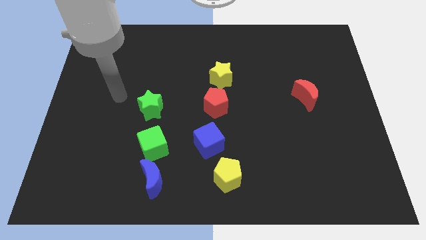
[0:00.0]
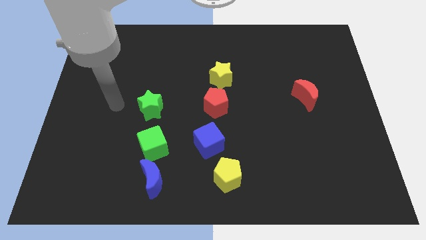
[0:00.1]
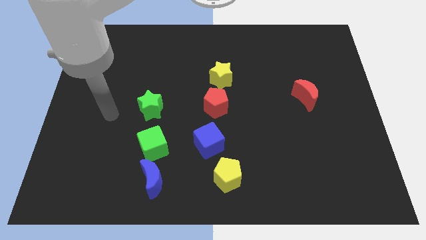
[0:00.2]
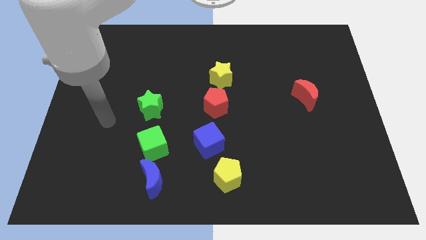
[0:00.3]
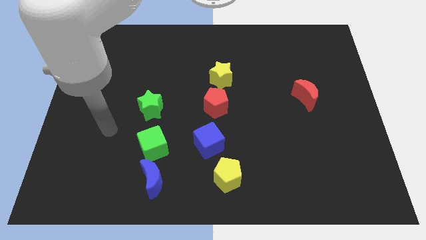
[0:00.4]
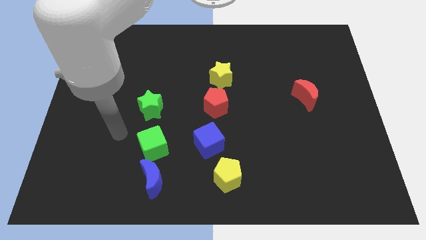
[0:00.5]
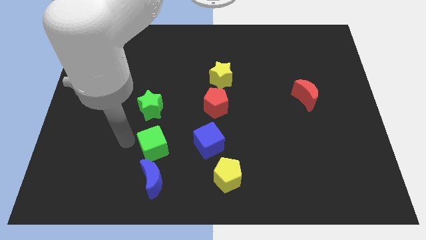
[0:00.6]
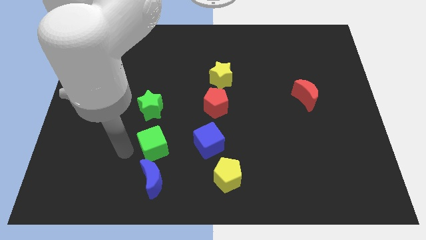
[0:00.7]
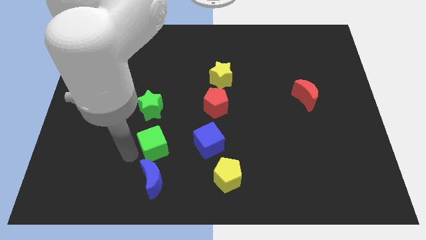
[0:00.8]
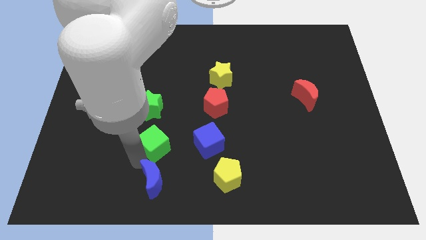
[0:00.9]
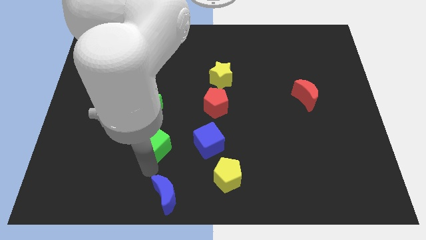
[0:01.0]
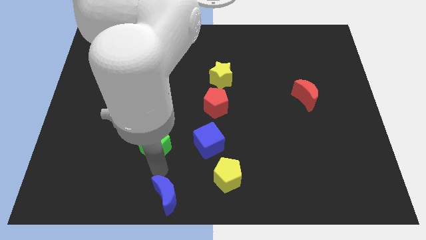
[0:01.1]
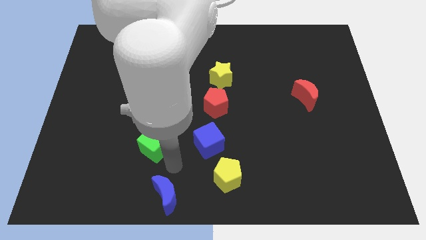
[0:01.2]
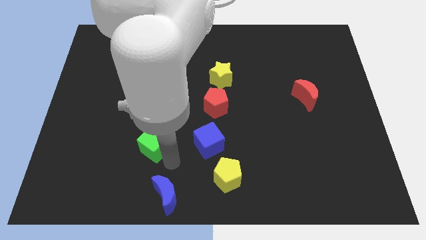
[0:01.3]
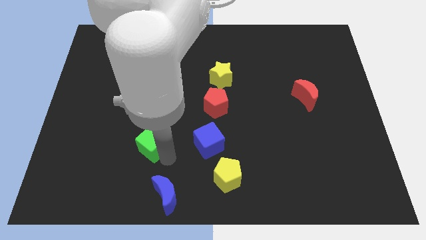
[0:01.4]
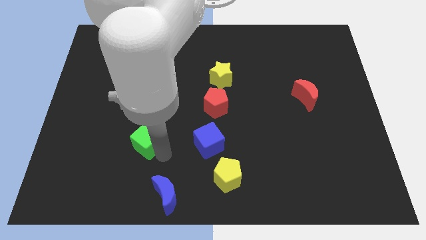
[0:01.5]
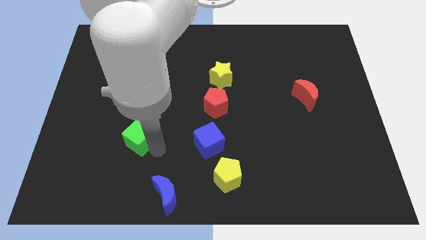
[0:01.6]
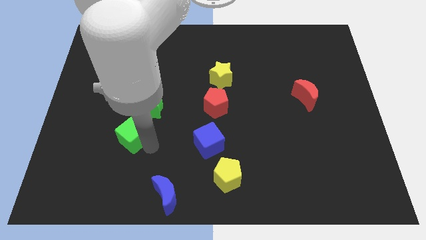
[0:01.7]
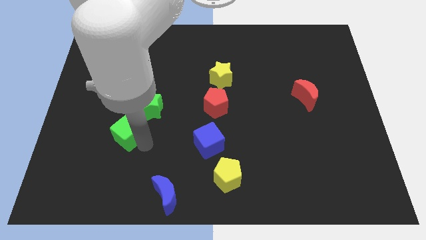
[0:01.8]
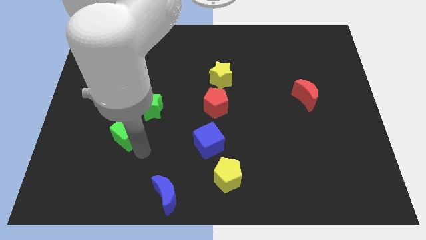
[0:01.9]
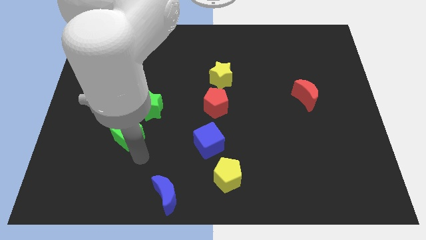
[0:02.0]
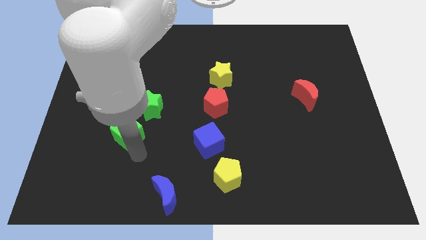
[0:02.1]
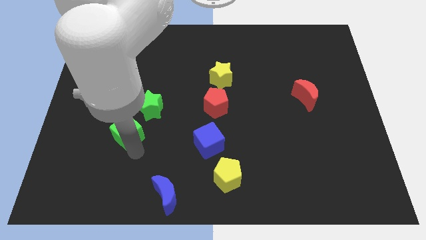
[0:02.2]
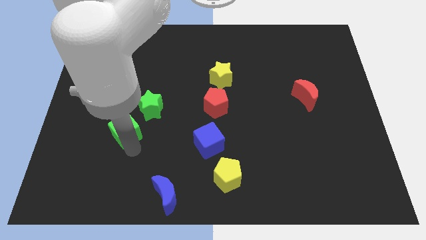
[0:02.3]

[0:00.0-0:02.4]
push the green cube a bit diagonally upwards and to the left

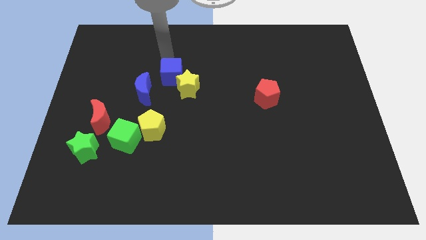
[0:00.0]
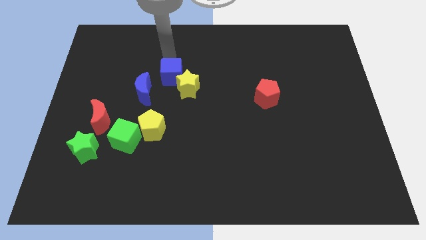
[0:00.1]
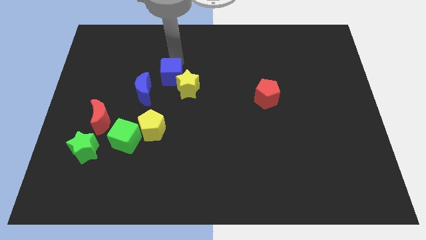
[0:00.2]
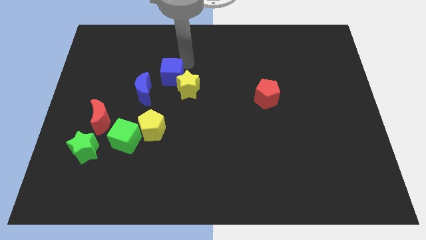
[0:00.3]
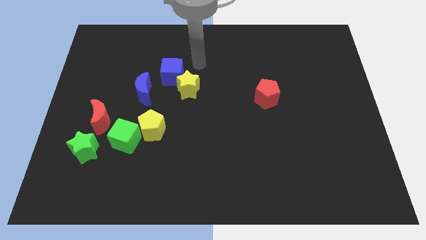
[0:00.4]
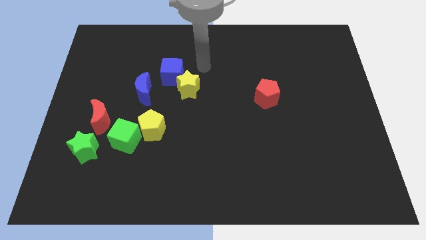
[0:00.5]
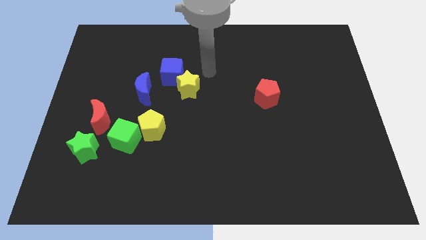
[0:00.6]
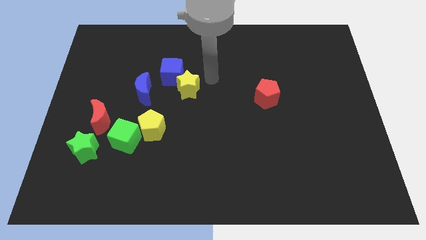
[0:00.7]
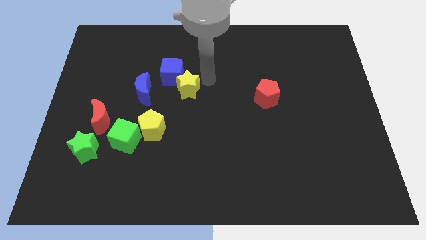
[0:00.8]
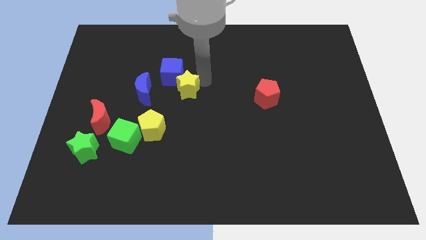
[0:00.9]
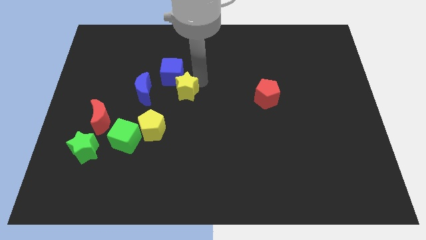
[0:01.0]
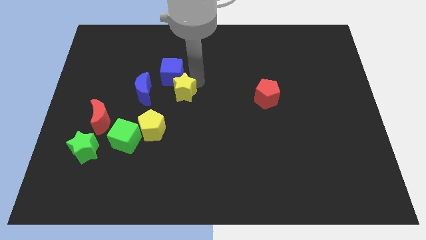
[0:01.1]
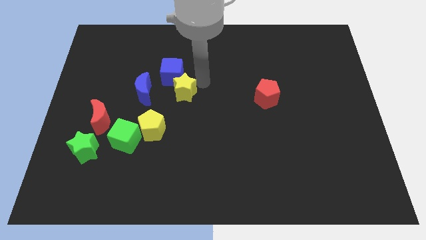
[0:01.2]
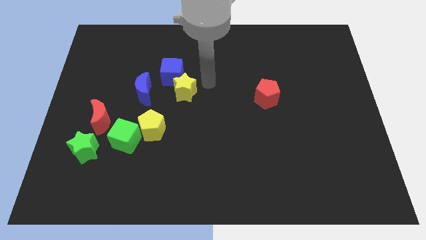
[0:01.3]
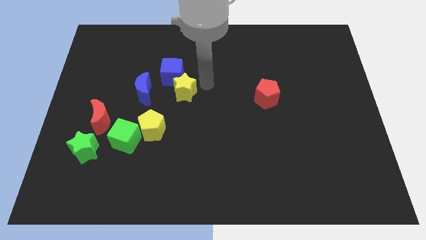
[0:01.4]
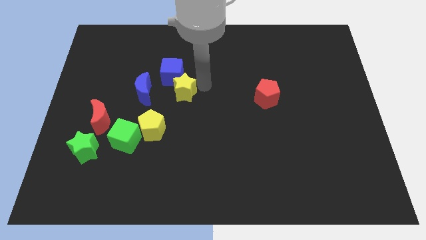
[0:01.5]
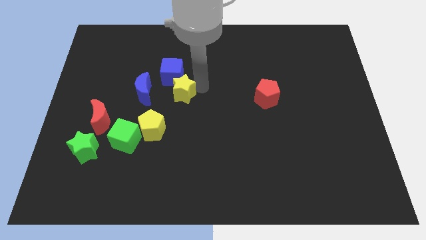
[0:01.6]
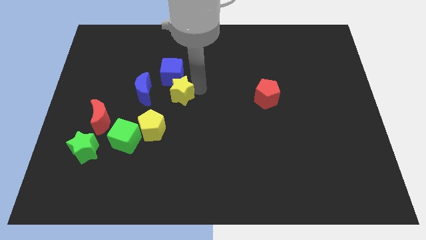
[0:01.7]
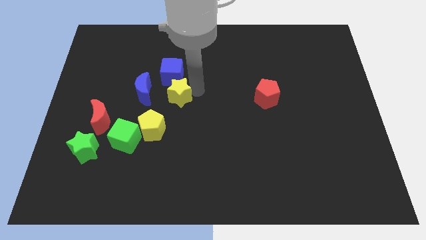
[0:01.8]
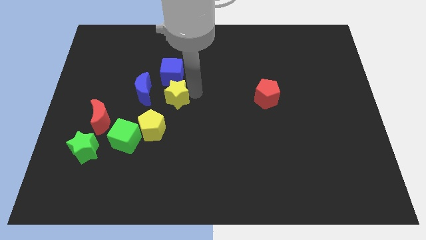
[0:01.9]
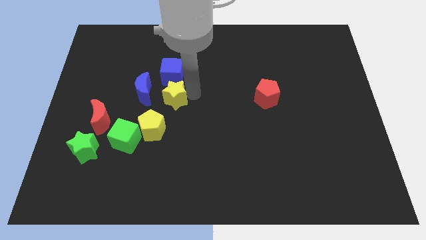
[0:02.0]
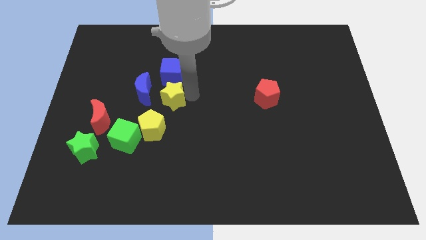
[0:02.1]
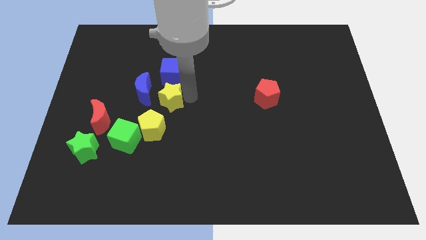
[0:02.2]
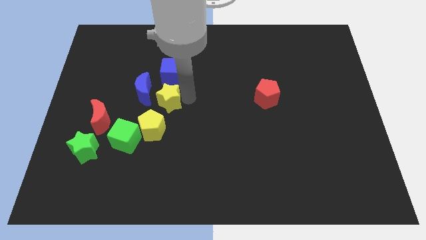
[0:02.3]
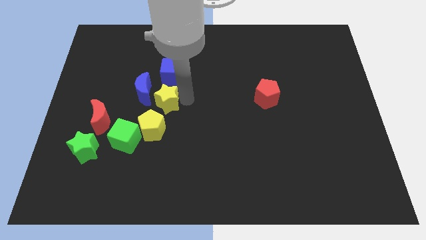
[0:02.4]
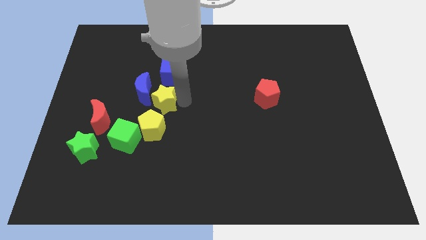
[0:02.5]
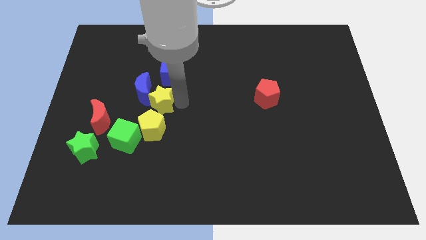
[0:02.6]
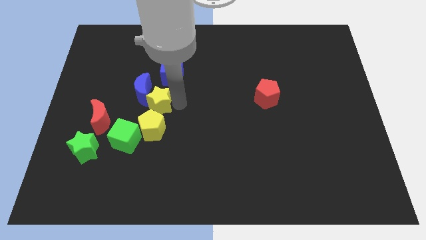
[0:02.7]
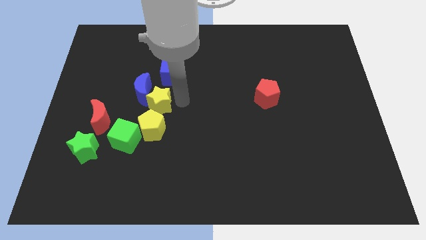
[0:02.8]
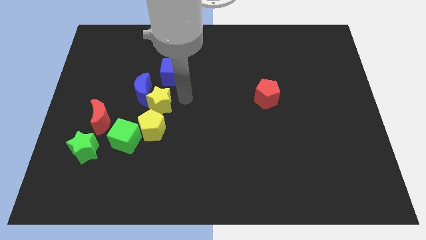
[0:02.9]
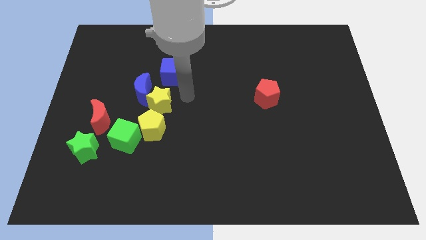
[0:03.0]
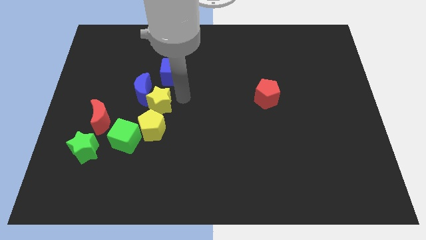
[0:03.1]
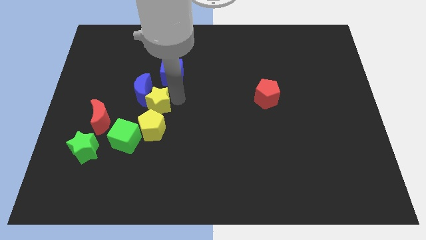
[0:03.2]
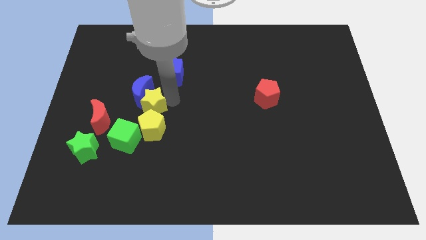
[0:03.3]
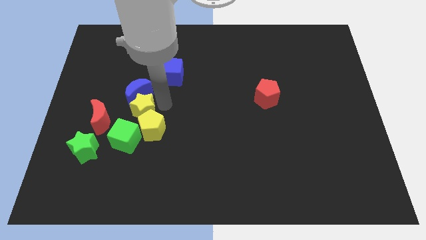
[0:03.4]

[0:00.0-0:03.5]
push the yellow star to the left slightly

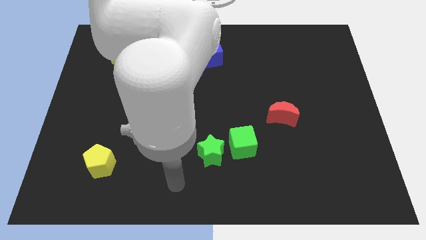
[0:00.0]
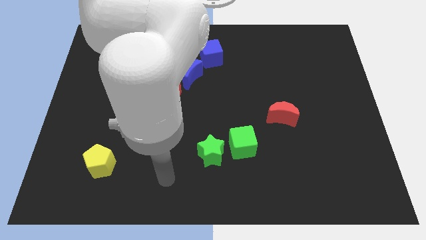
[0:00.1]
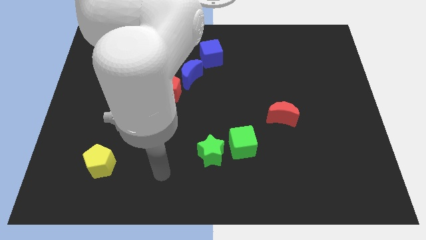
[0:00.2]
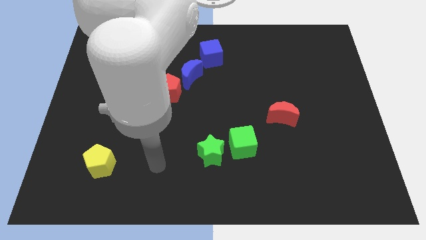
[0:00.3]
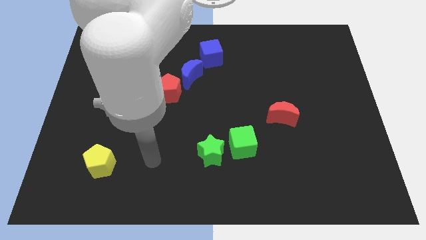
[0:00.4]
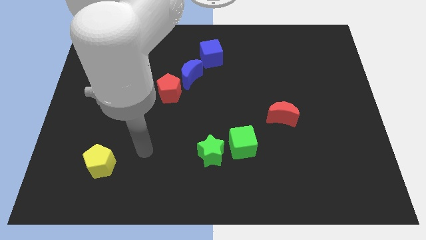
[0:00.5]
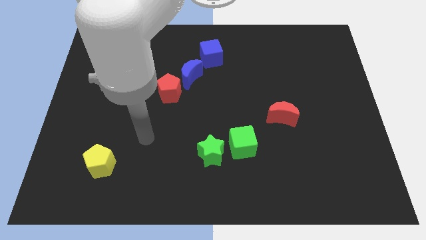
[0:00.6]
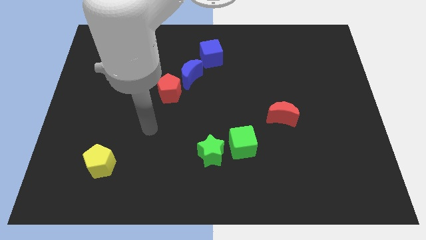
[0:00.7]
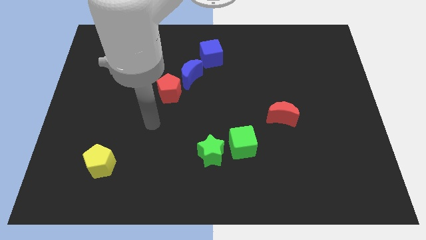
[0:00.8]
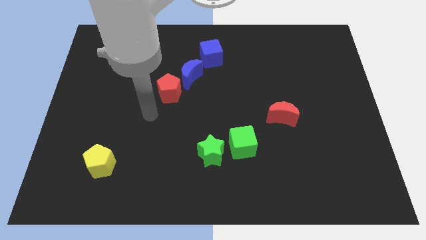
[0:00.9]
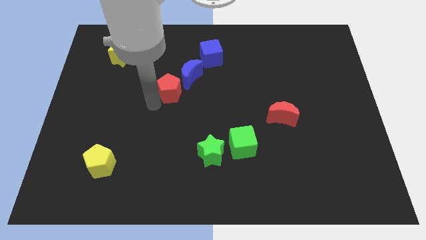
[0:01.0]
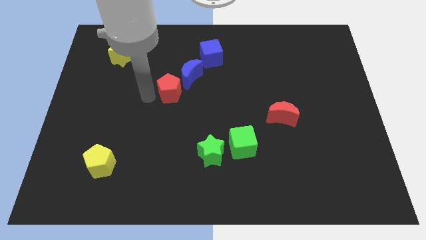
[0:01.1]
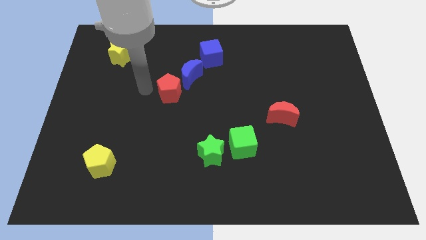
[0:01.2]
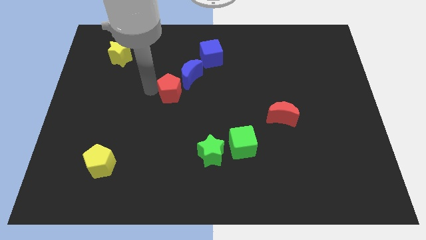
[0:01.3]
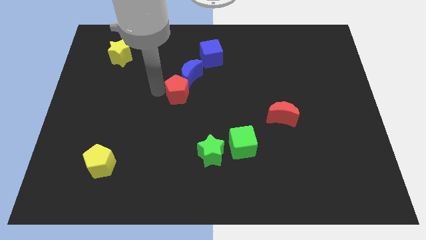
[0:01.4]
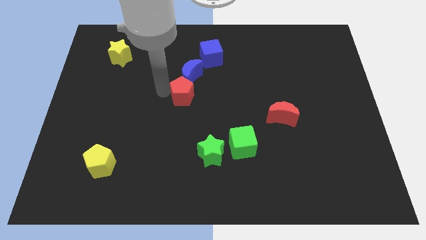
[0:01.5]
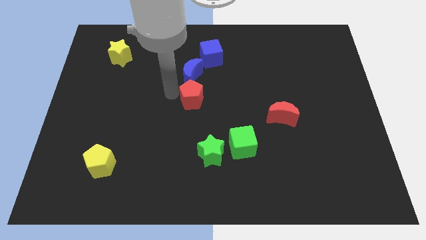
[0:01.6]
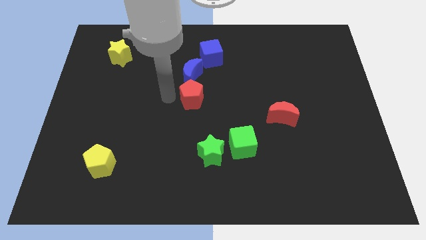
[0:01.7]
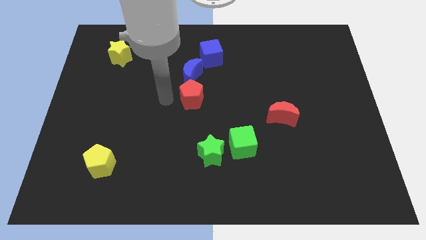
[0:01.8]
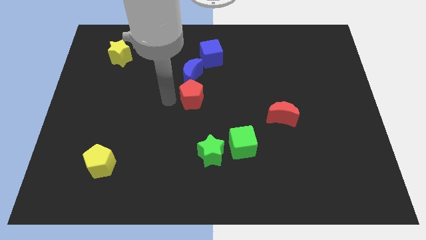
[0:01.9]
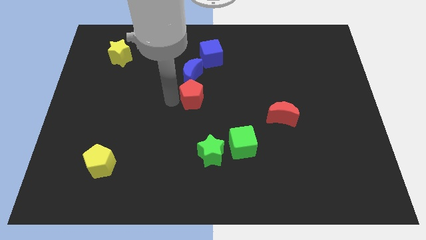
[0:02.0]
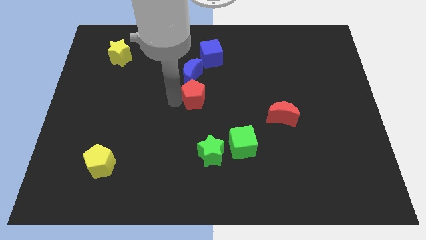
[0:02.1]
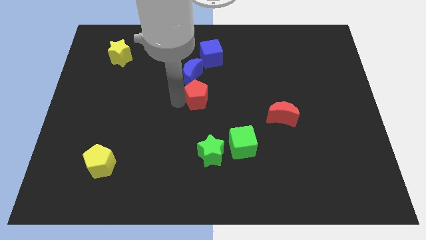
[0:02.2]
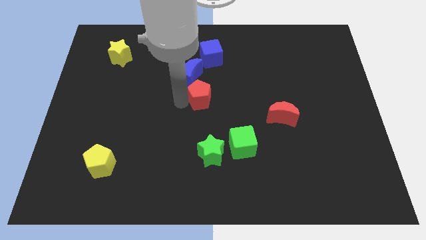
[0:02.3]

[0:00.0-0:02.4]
slide the red pentagon to the right a little
